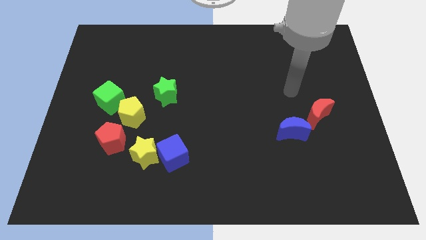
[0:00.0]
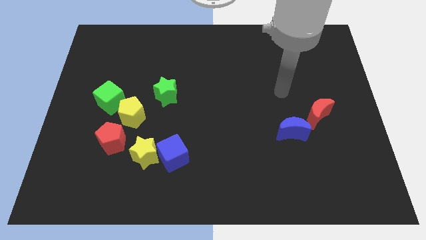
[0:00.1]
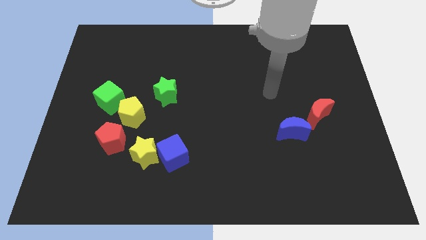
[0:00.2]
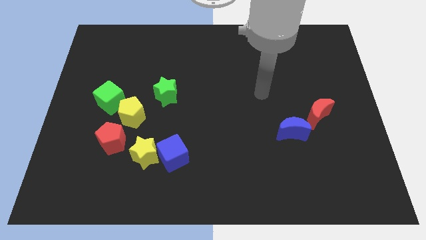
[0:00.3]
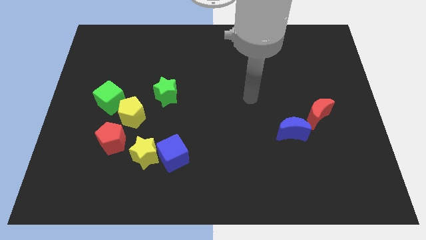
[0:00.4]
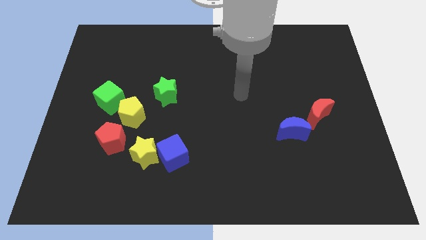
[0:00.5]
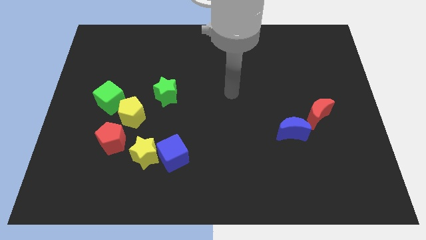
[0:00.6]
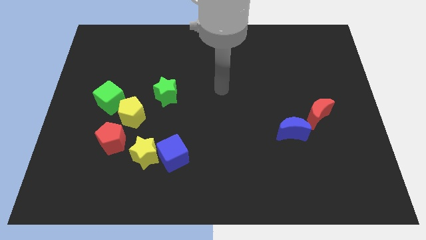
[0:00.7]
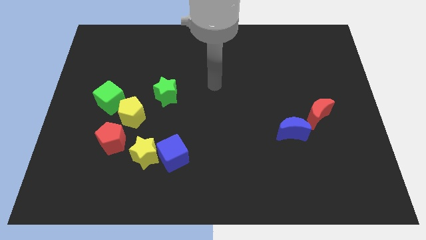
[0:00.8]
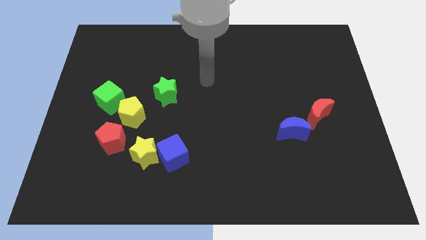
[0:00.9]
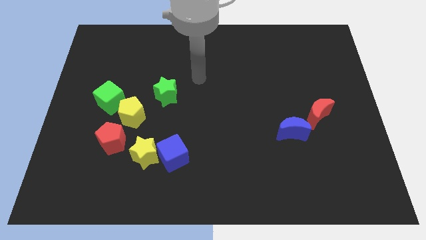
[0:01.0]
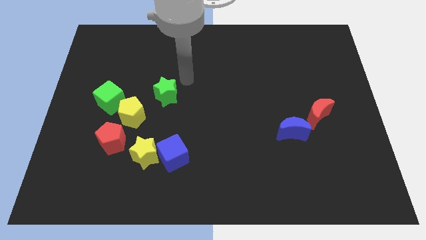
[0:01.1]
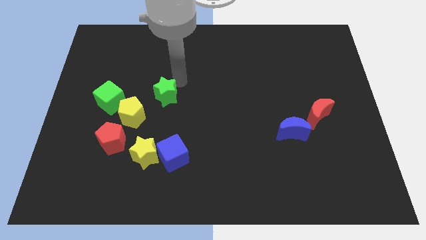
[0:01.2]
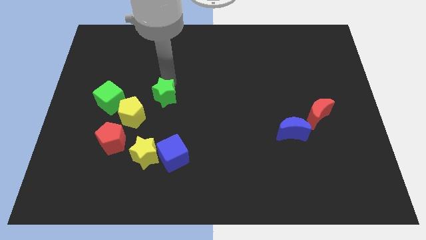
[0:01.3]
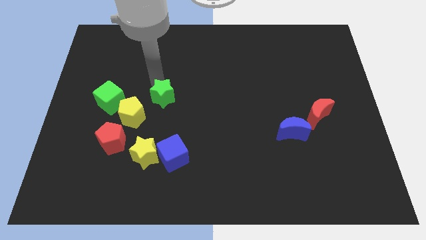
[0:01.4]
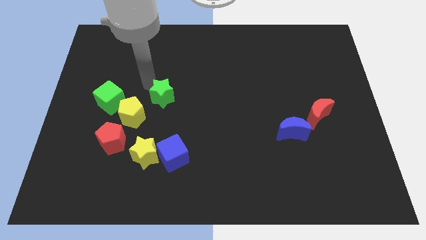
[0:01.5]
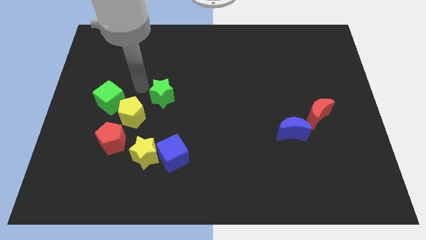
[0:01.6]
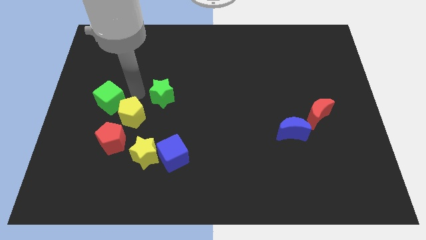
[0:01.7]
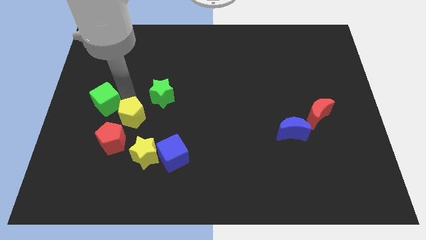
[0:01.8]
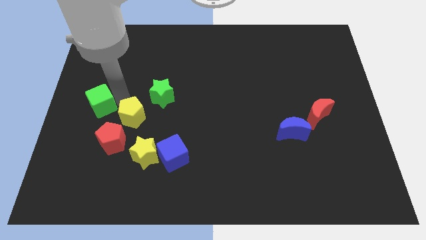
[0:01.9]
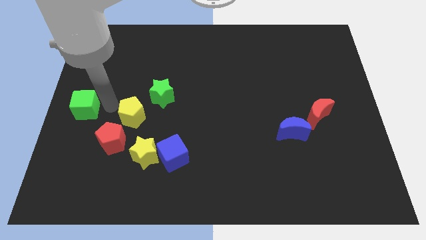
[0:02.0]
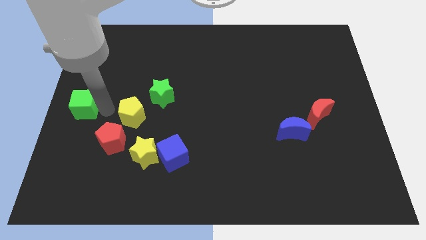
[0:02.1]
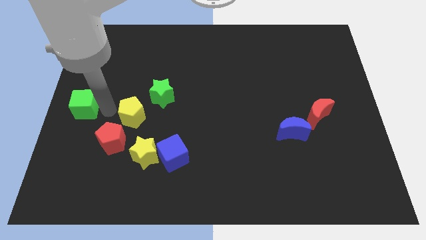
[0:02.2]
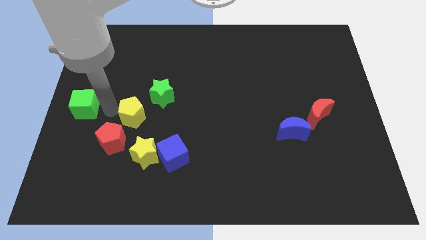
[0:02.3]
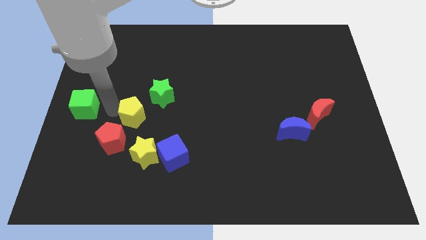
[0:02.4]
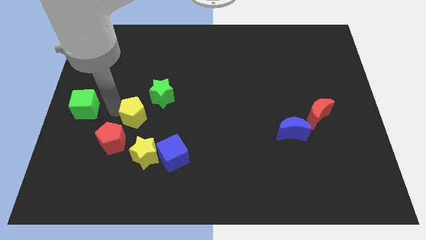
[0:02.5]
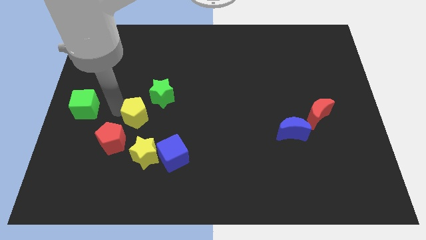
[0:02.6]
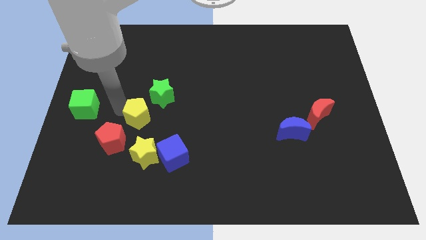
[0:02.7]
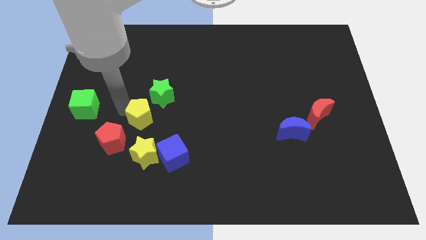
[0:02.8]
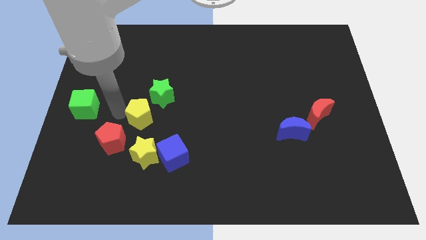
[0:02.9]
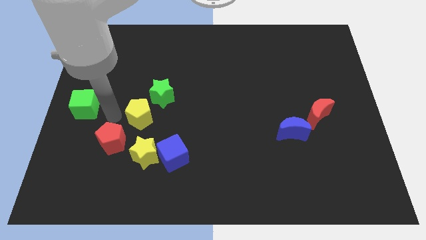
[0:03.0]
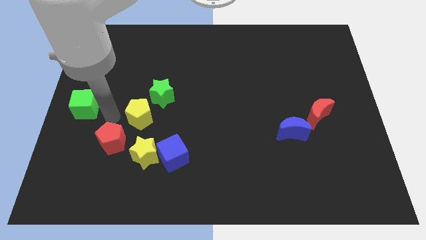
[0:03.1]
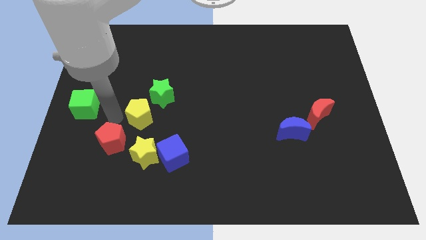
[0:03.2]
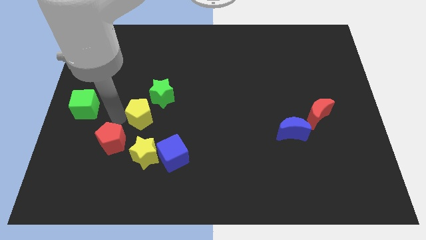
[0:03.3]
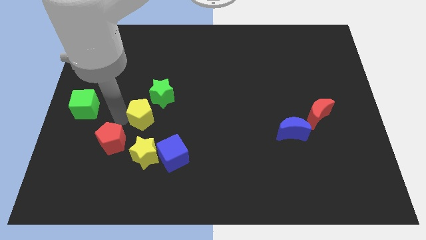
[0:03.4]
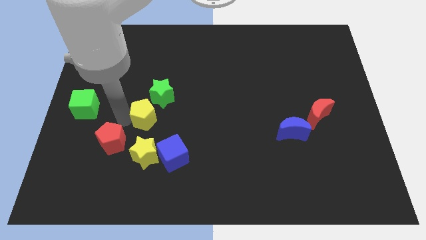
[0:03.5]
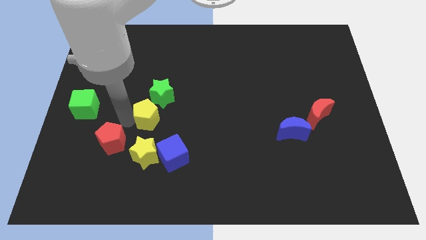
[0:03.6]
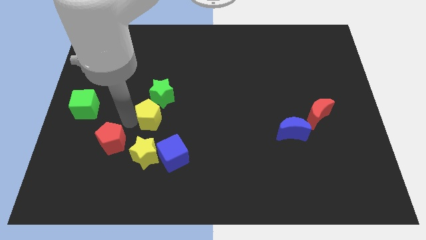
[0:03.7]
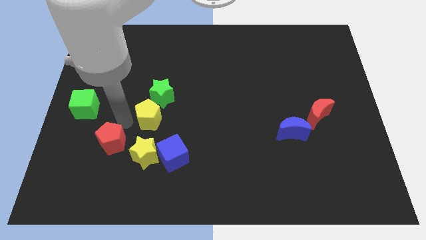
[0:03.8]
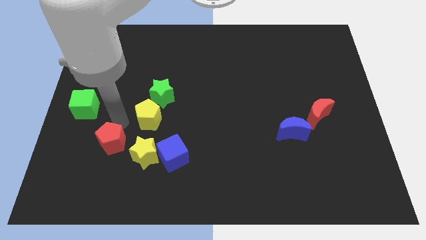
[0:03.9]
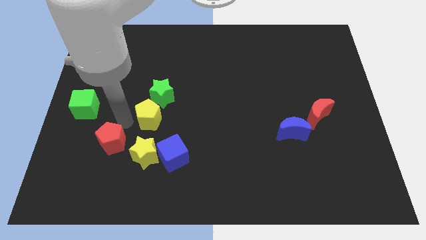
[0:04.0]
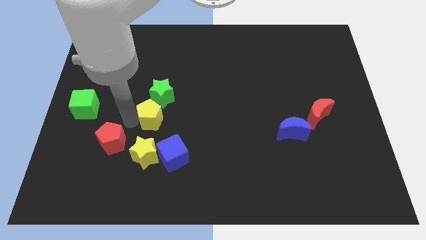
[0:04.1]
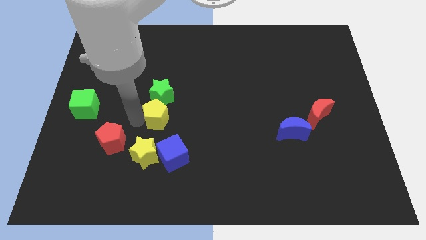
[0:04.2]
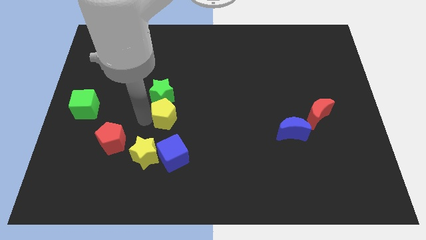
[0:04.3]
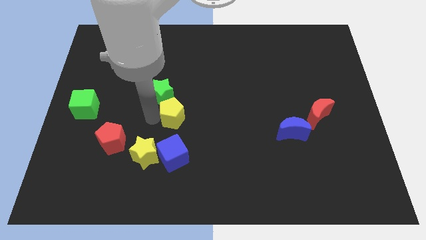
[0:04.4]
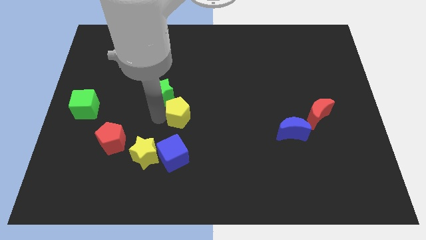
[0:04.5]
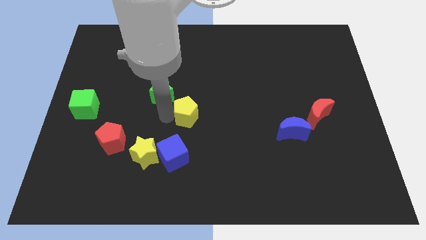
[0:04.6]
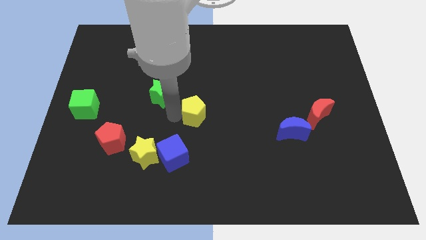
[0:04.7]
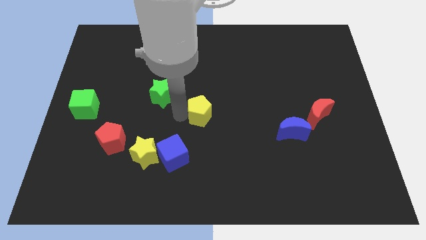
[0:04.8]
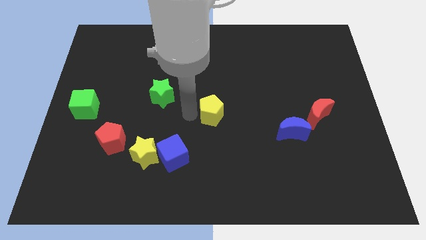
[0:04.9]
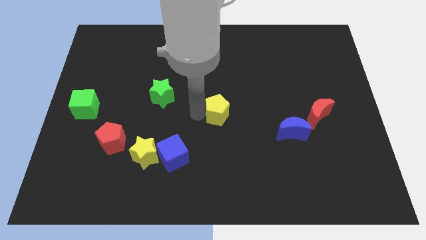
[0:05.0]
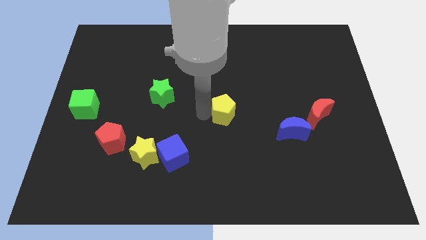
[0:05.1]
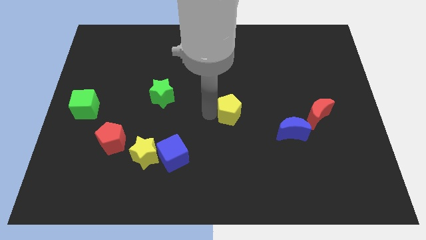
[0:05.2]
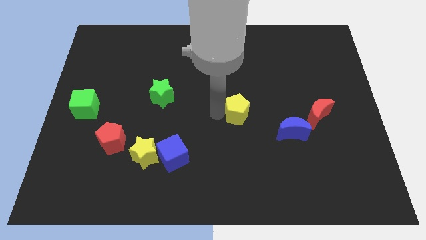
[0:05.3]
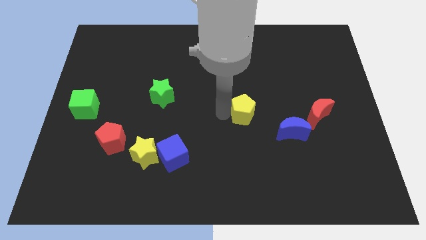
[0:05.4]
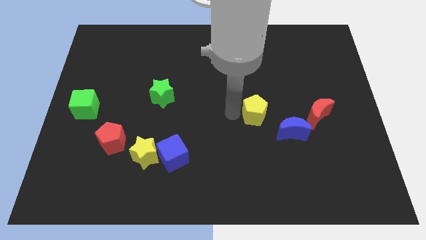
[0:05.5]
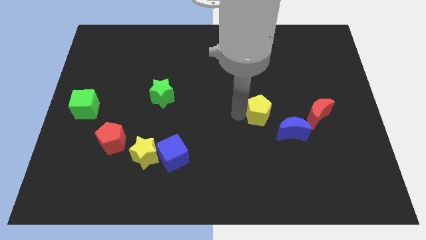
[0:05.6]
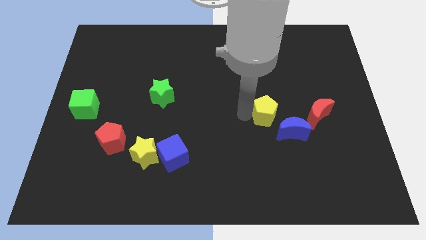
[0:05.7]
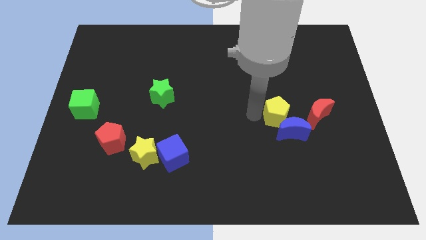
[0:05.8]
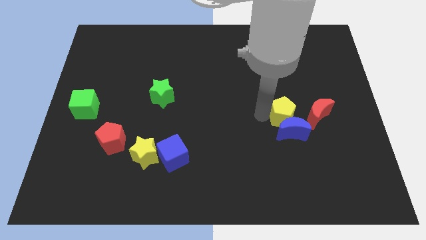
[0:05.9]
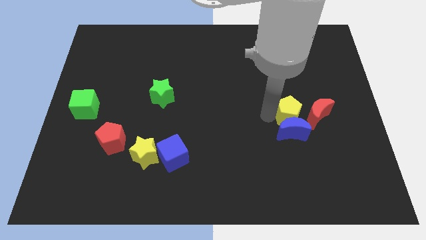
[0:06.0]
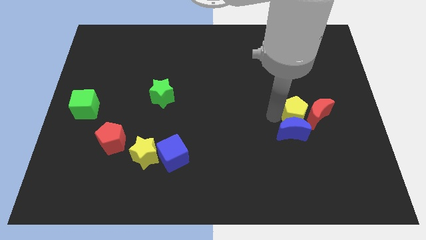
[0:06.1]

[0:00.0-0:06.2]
put the yellow pentagon close to the red moon

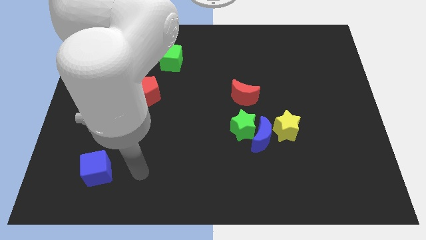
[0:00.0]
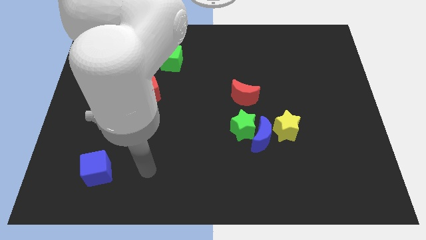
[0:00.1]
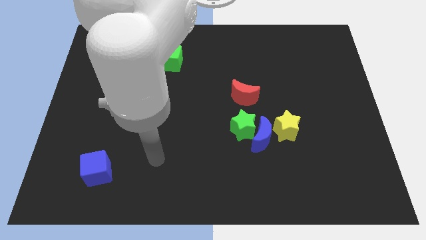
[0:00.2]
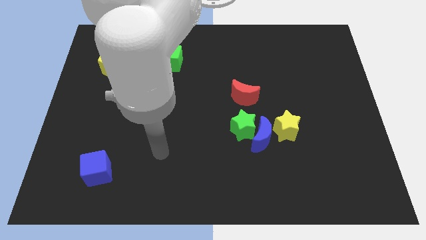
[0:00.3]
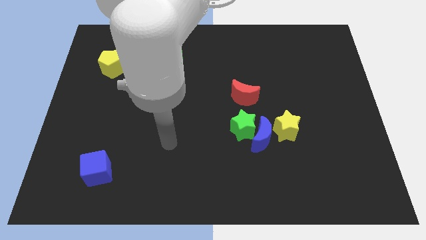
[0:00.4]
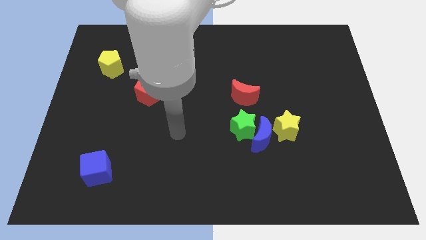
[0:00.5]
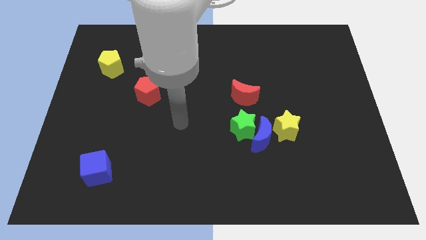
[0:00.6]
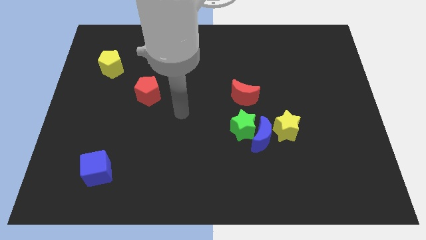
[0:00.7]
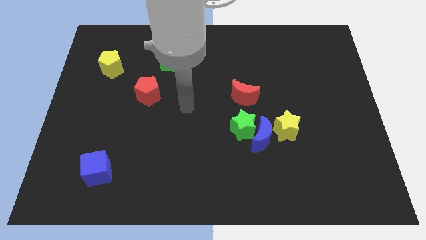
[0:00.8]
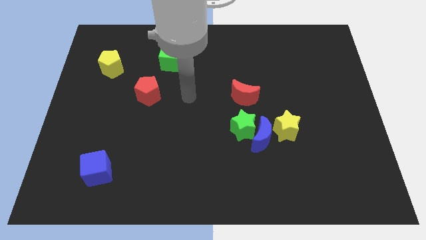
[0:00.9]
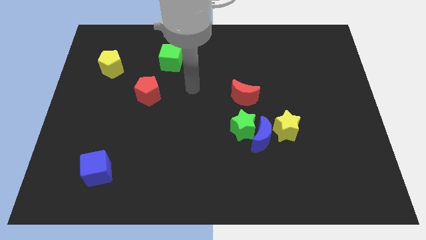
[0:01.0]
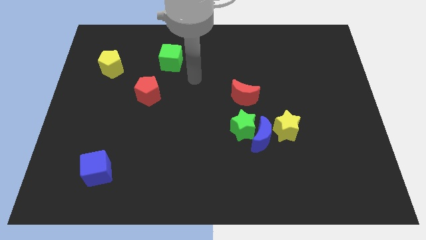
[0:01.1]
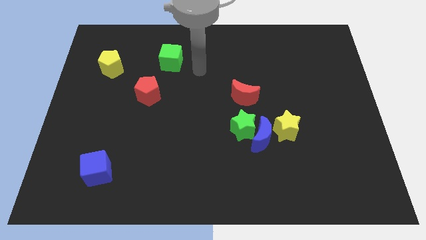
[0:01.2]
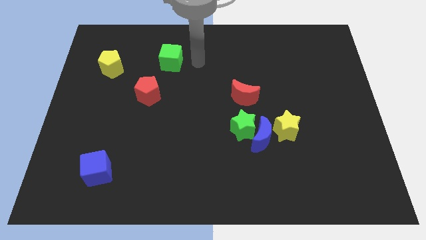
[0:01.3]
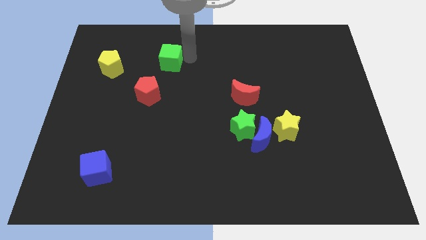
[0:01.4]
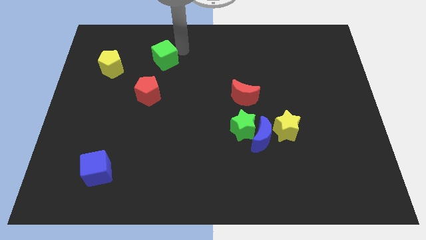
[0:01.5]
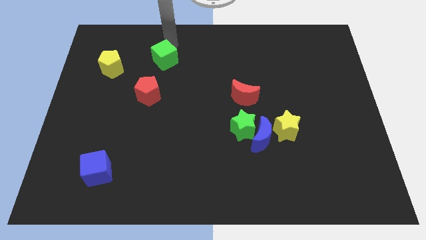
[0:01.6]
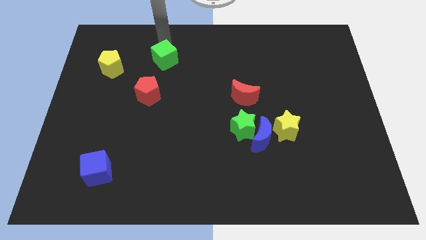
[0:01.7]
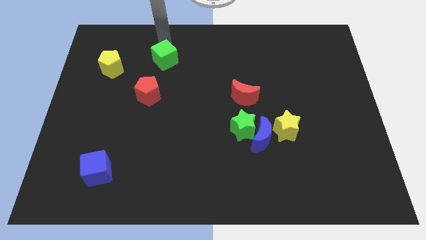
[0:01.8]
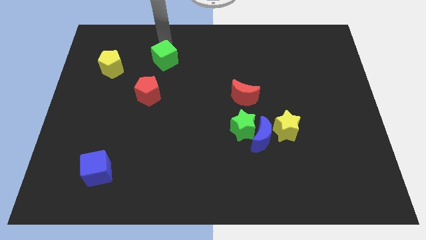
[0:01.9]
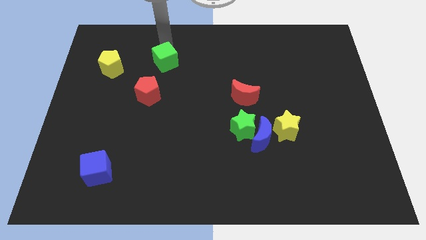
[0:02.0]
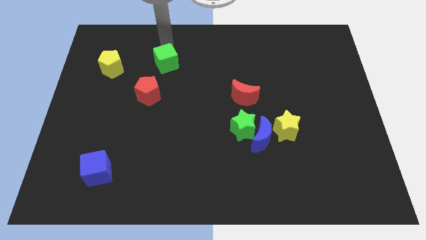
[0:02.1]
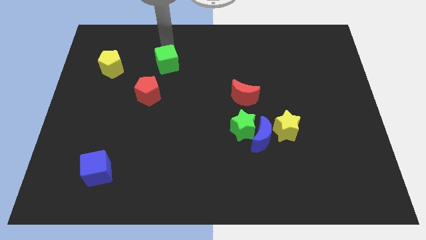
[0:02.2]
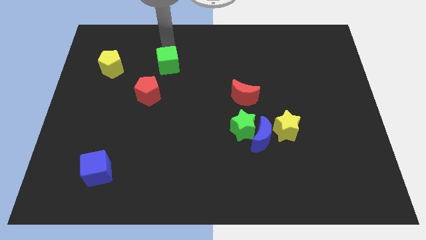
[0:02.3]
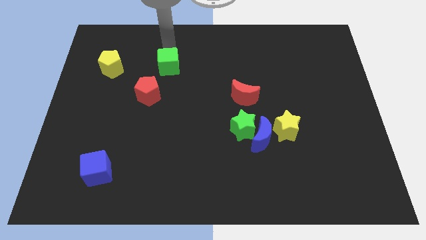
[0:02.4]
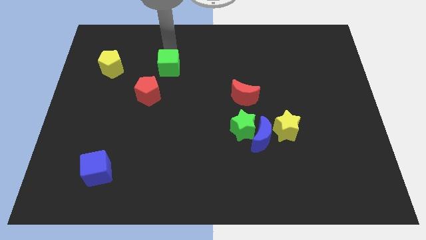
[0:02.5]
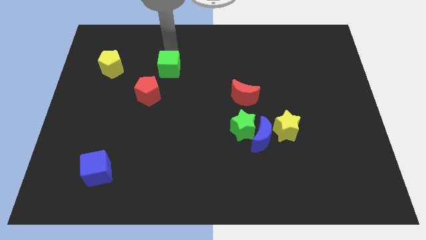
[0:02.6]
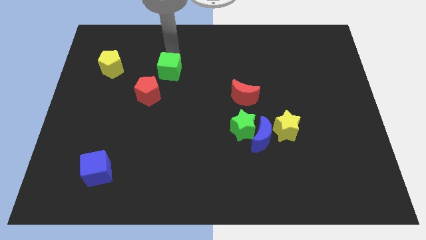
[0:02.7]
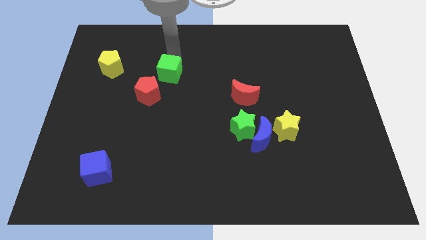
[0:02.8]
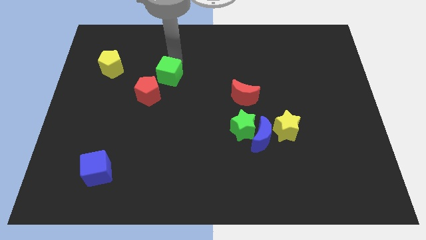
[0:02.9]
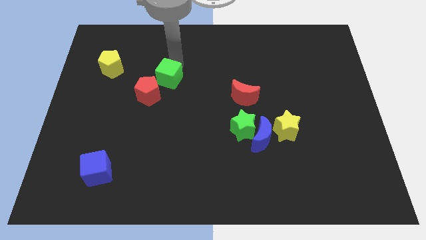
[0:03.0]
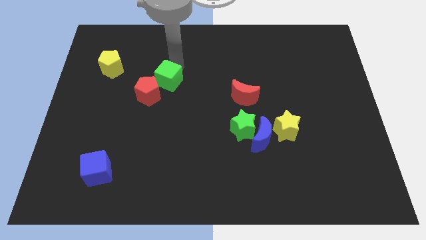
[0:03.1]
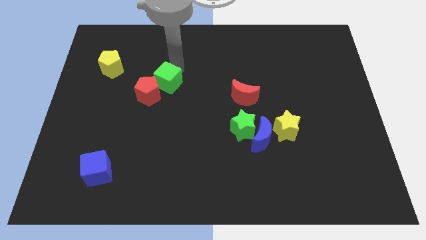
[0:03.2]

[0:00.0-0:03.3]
slide the green cube towards the red pentagon
